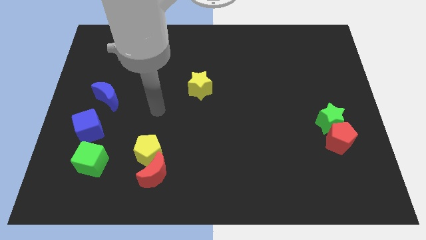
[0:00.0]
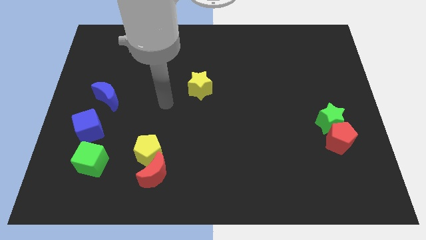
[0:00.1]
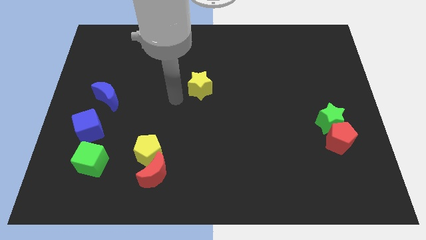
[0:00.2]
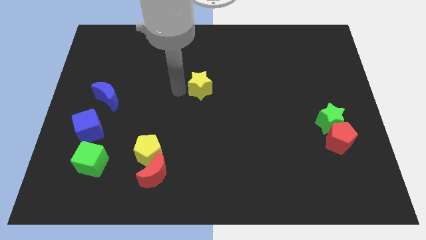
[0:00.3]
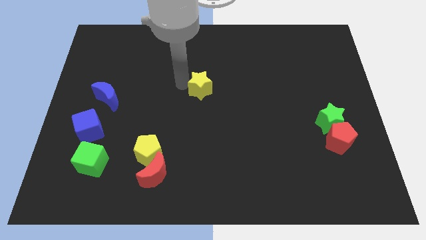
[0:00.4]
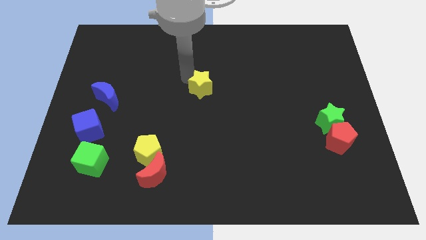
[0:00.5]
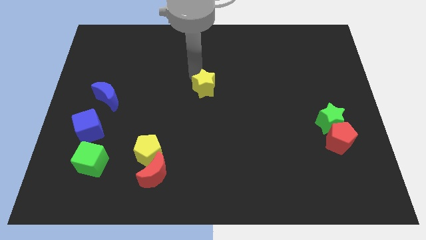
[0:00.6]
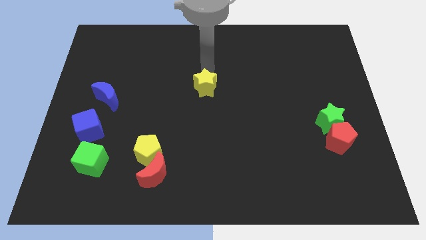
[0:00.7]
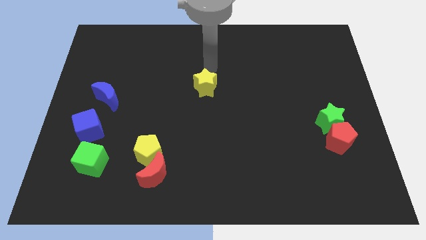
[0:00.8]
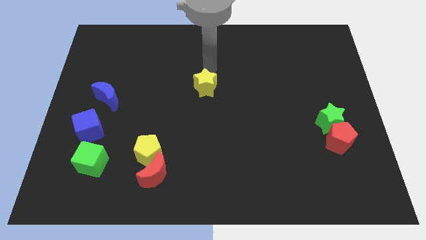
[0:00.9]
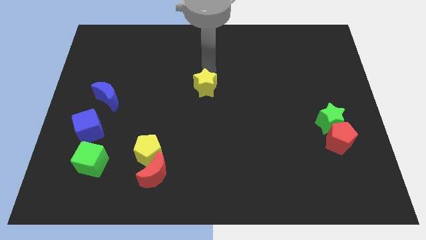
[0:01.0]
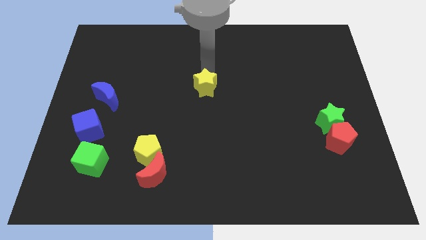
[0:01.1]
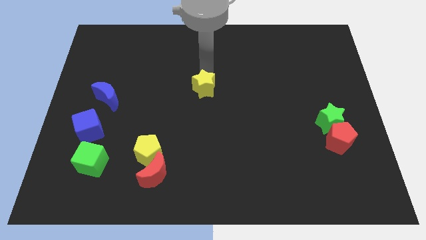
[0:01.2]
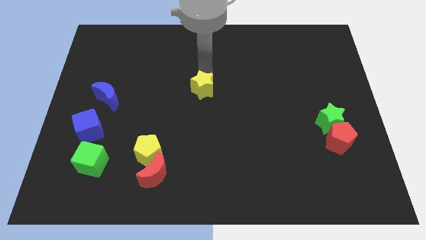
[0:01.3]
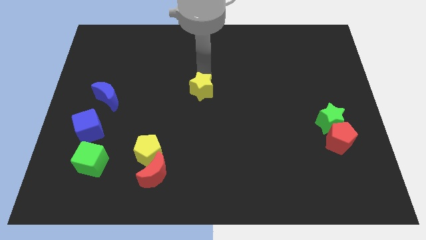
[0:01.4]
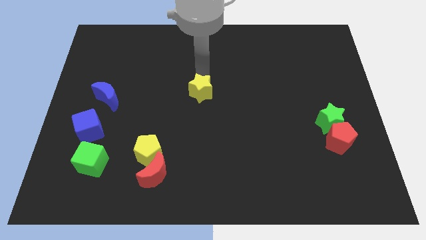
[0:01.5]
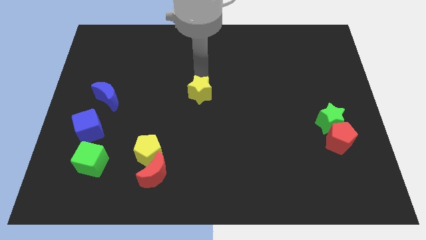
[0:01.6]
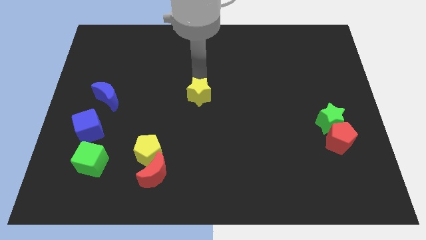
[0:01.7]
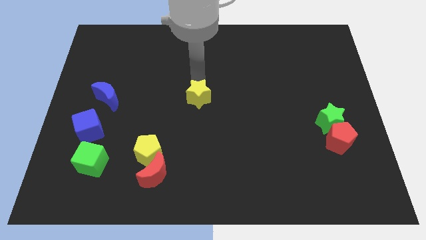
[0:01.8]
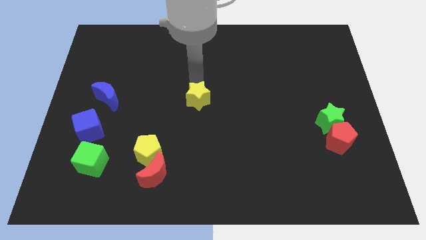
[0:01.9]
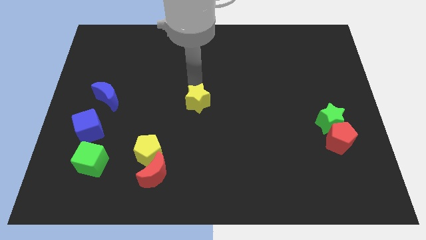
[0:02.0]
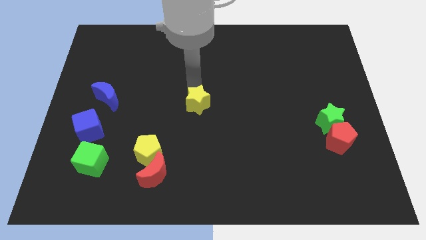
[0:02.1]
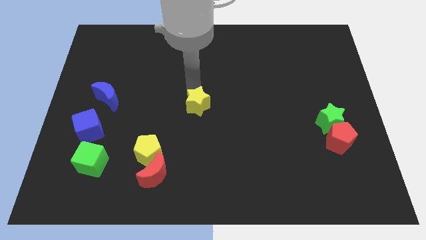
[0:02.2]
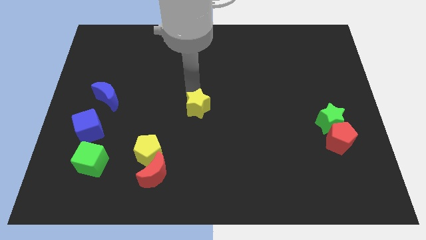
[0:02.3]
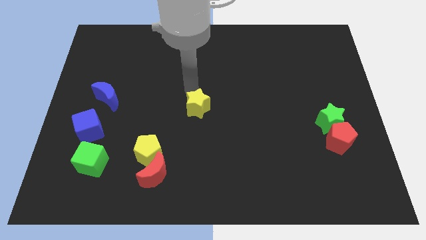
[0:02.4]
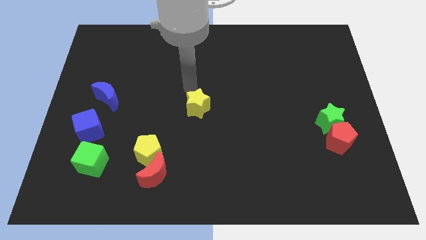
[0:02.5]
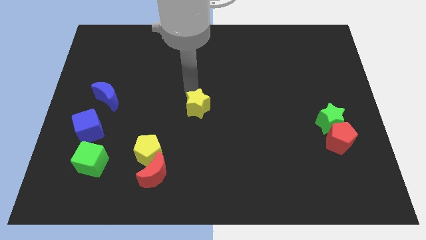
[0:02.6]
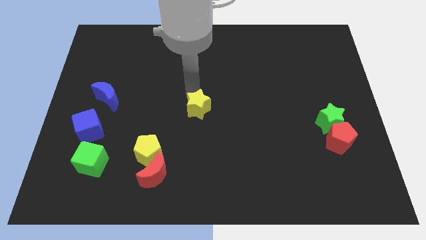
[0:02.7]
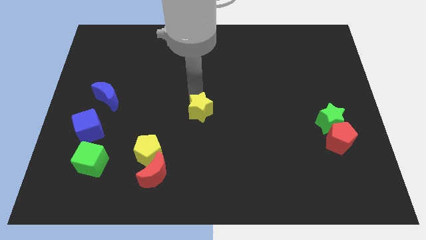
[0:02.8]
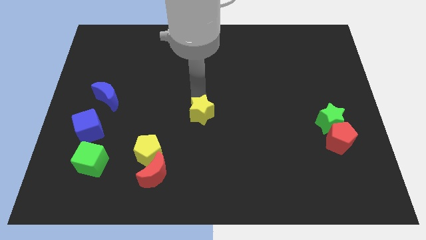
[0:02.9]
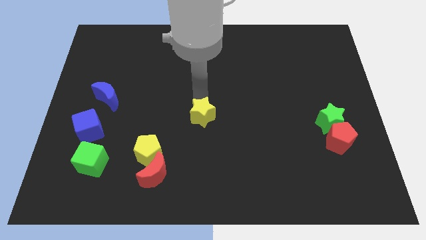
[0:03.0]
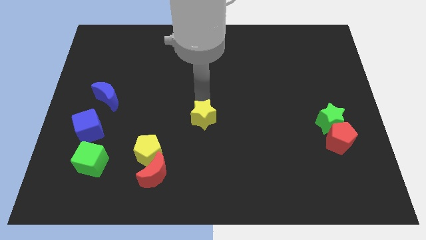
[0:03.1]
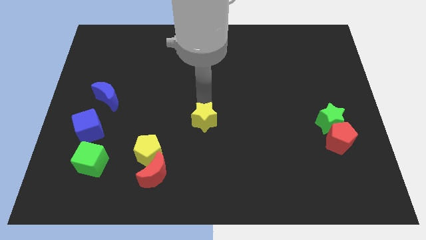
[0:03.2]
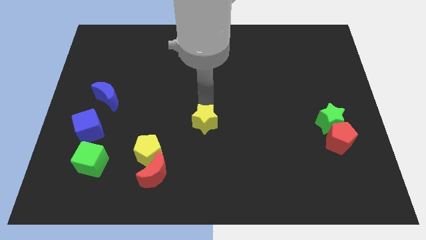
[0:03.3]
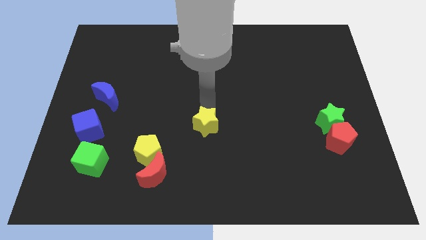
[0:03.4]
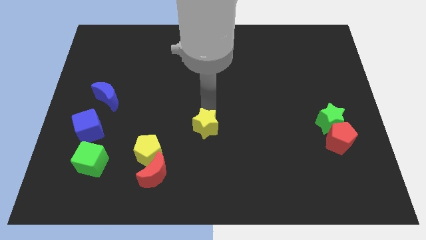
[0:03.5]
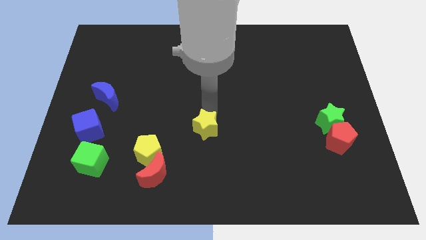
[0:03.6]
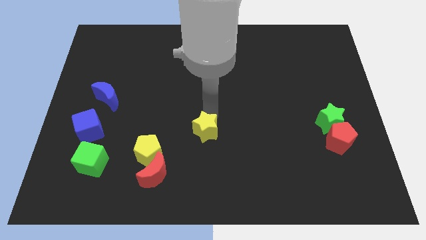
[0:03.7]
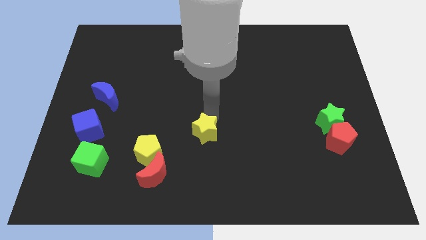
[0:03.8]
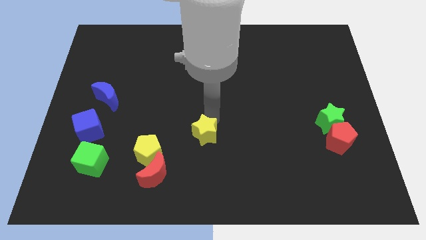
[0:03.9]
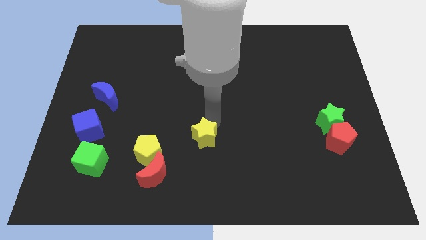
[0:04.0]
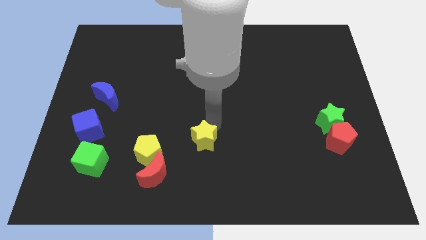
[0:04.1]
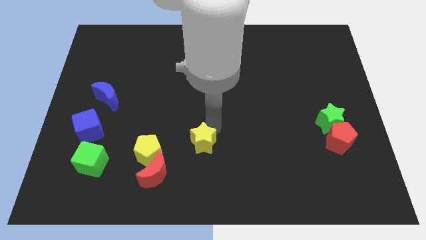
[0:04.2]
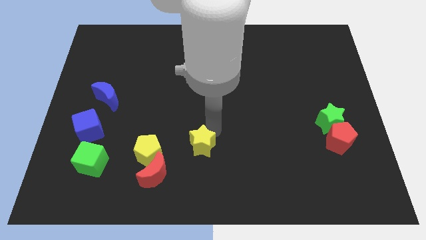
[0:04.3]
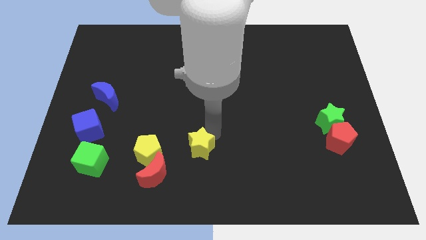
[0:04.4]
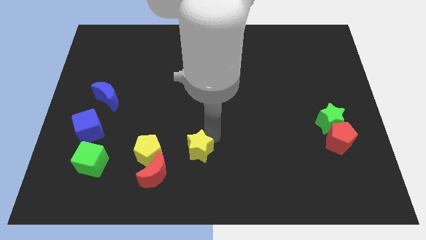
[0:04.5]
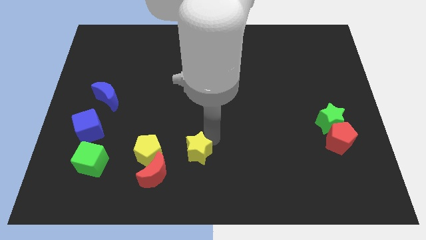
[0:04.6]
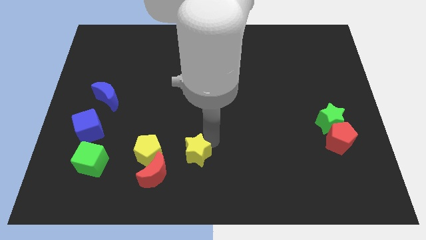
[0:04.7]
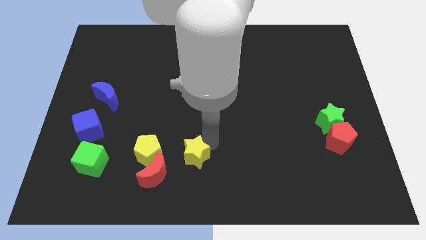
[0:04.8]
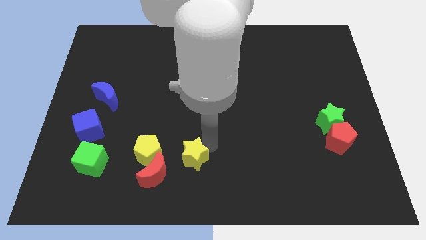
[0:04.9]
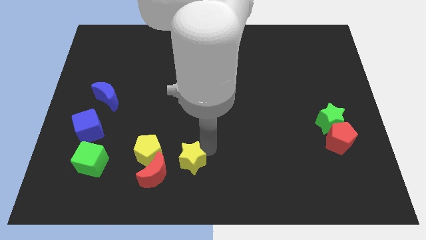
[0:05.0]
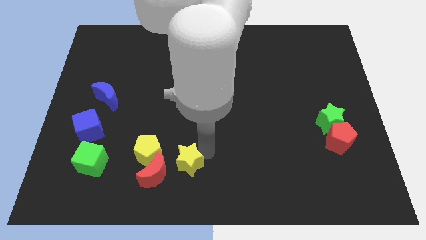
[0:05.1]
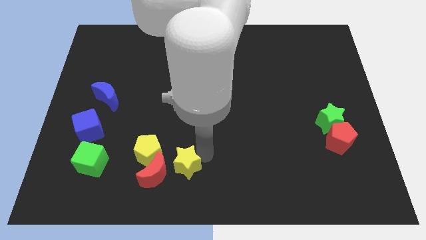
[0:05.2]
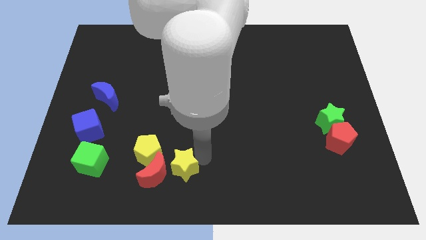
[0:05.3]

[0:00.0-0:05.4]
put the yellow star towards the red moon

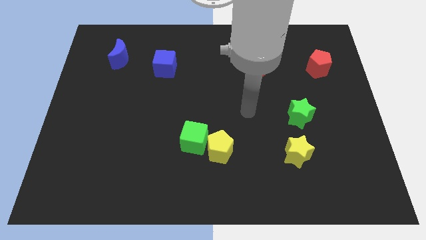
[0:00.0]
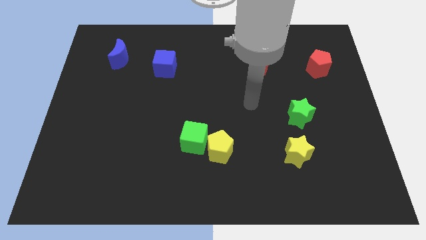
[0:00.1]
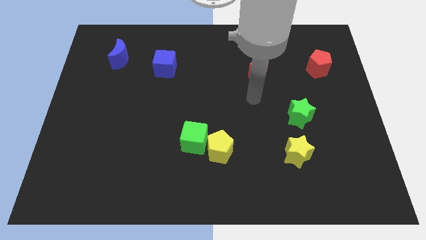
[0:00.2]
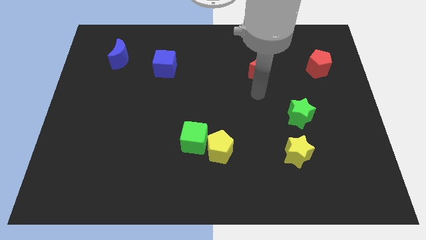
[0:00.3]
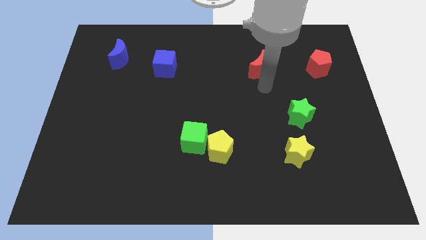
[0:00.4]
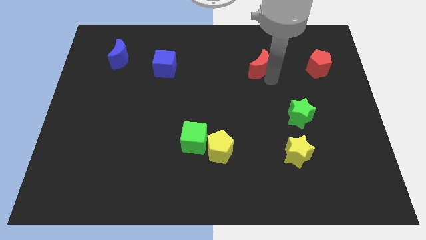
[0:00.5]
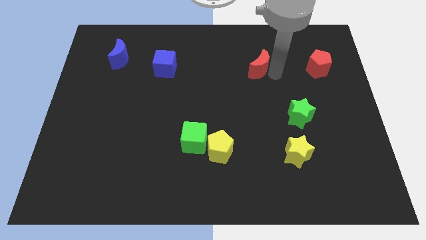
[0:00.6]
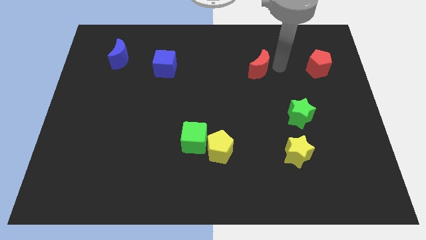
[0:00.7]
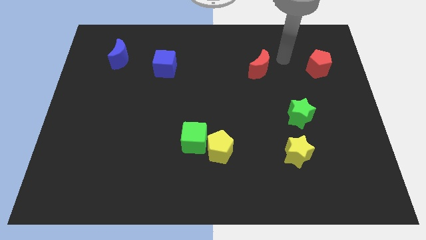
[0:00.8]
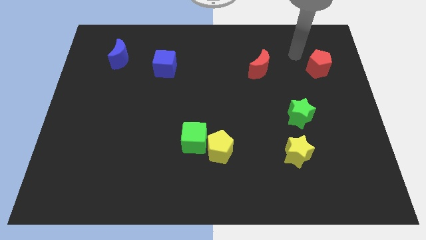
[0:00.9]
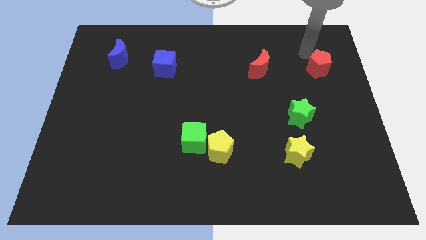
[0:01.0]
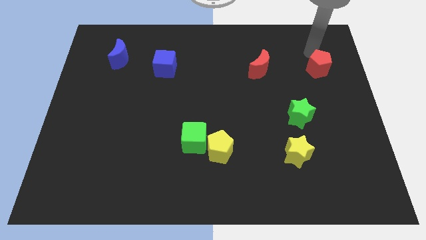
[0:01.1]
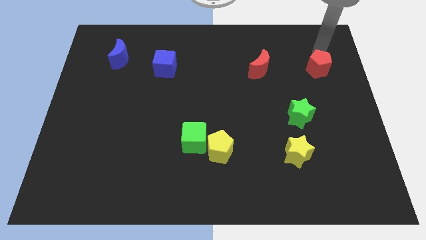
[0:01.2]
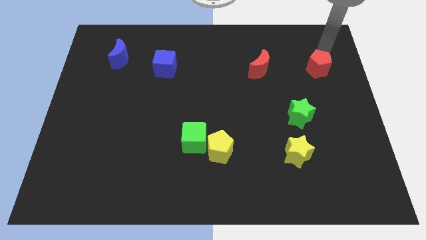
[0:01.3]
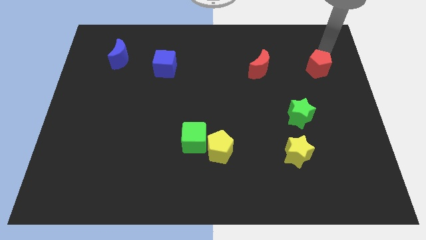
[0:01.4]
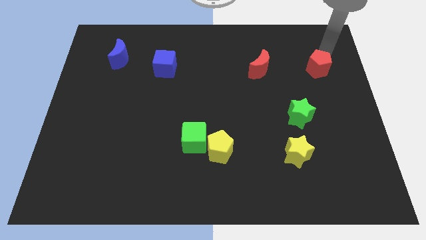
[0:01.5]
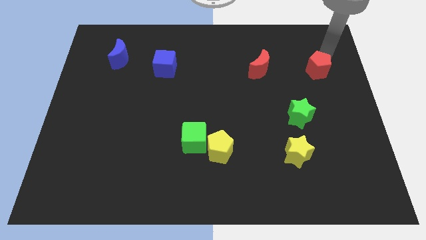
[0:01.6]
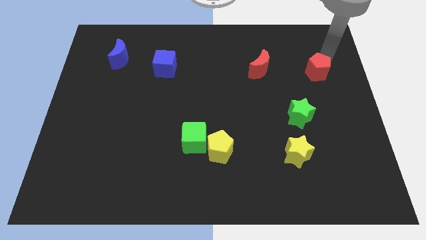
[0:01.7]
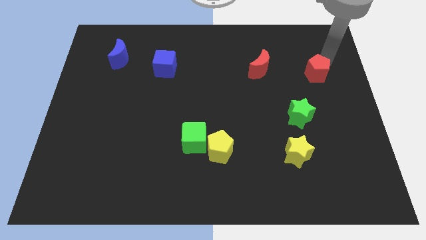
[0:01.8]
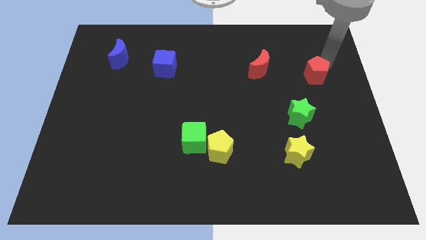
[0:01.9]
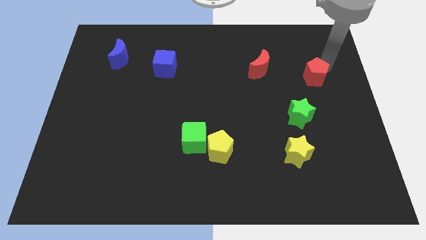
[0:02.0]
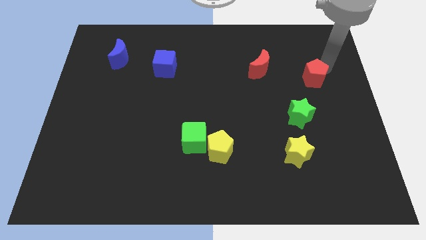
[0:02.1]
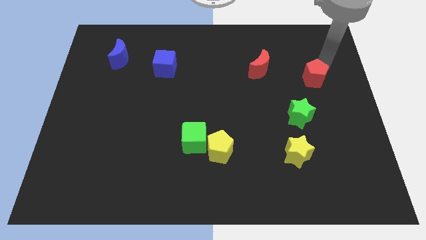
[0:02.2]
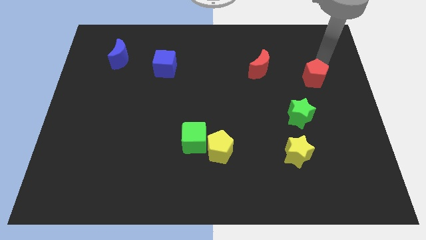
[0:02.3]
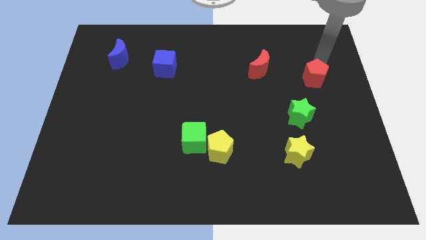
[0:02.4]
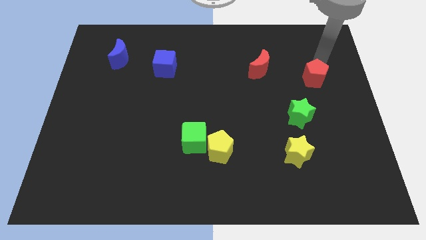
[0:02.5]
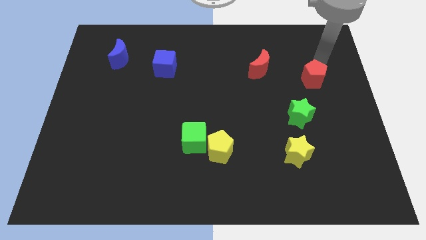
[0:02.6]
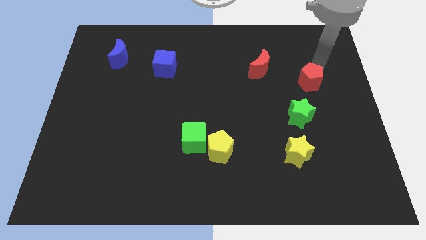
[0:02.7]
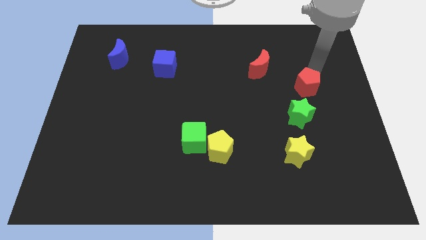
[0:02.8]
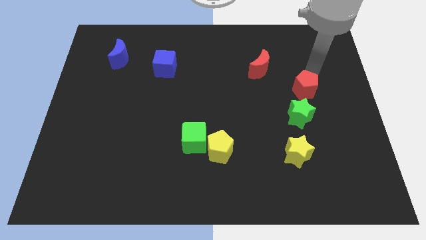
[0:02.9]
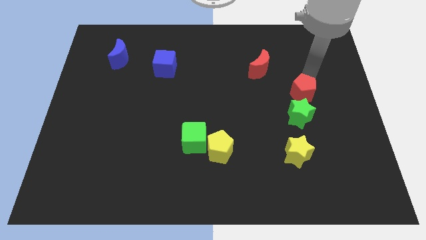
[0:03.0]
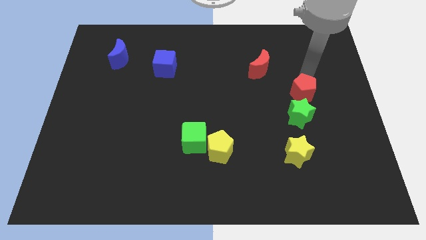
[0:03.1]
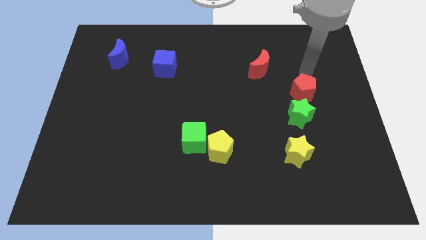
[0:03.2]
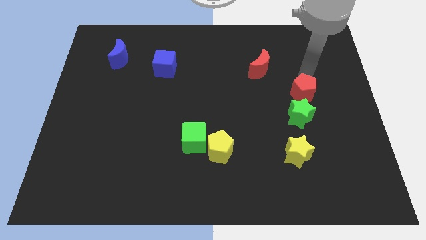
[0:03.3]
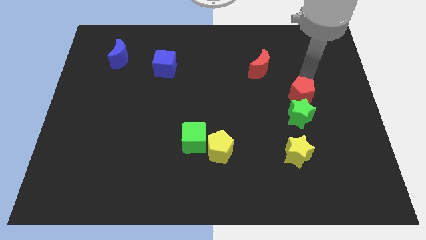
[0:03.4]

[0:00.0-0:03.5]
put the red pentagon to the green star
